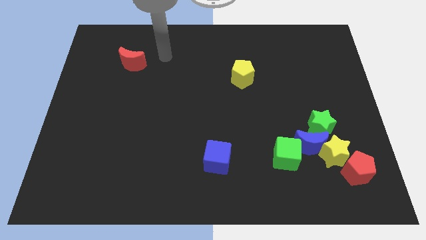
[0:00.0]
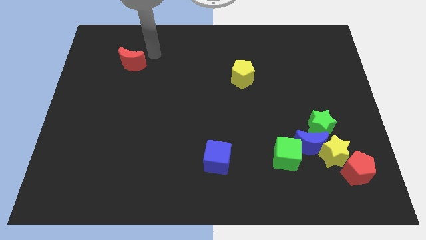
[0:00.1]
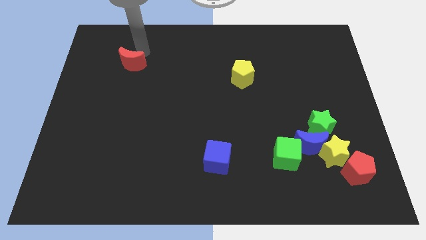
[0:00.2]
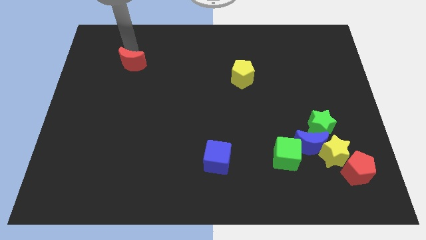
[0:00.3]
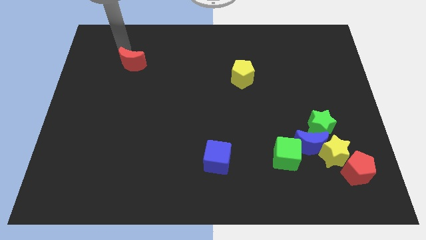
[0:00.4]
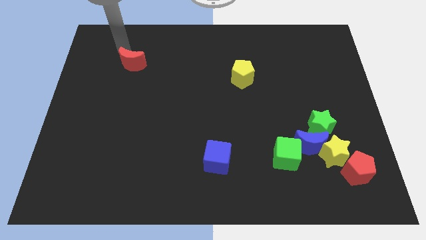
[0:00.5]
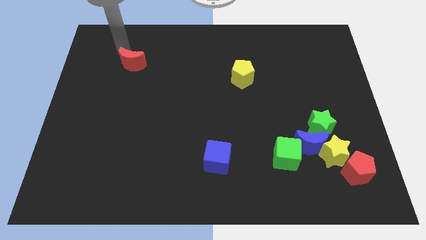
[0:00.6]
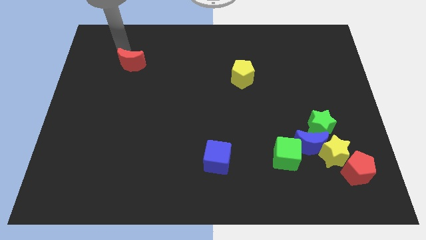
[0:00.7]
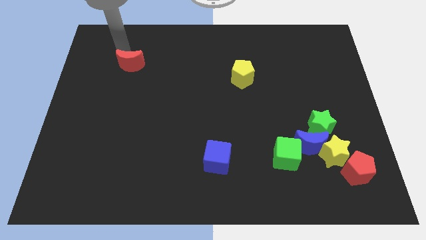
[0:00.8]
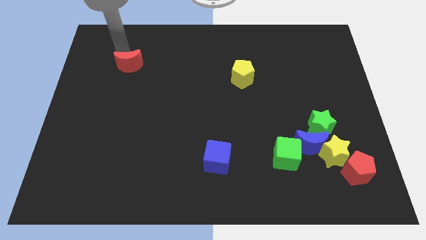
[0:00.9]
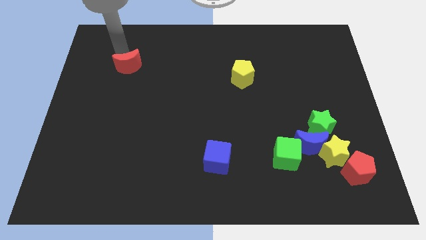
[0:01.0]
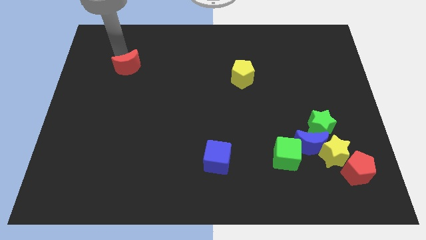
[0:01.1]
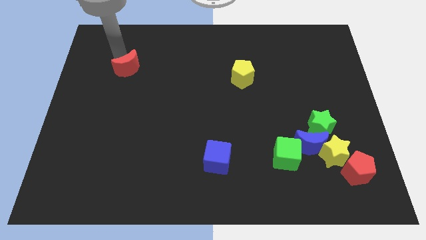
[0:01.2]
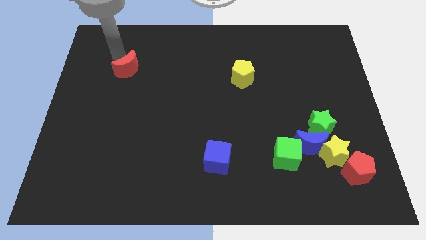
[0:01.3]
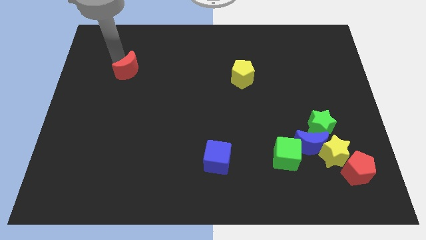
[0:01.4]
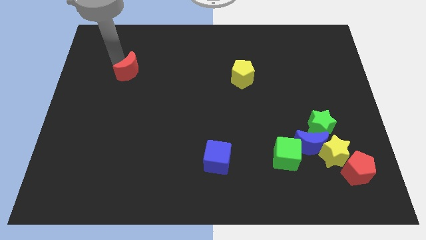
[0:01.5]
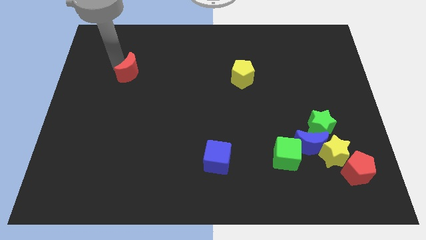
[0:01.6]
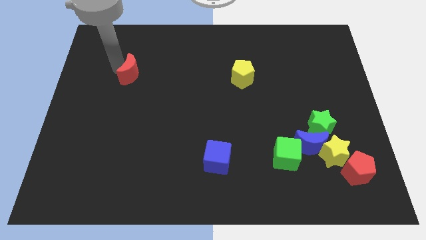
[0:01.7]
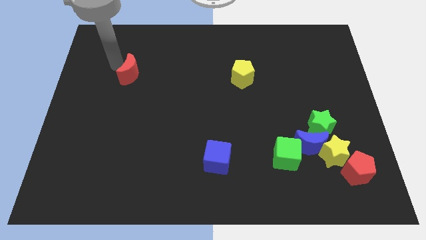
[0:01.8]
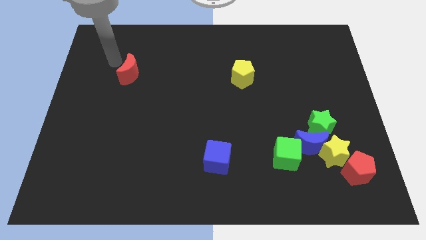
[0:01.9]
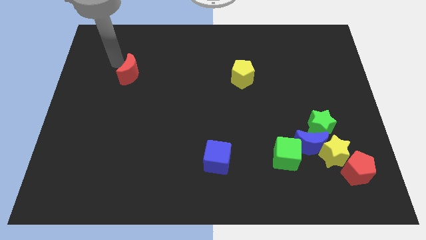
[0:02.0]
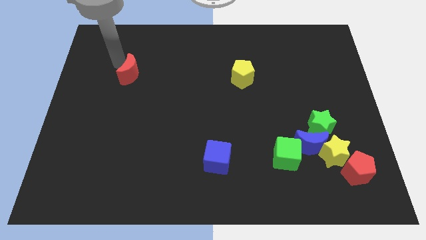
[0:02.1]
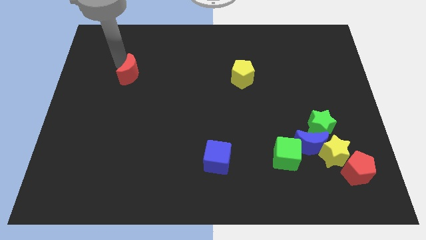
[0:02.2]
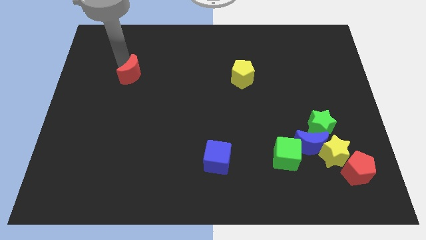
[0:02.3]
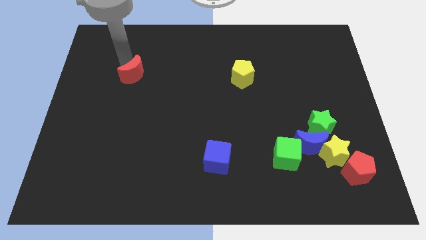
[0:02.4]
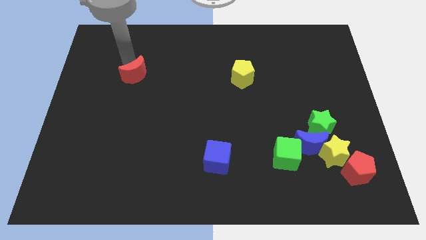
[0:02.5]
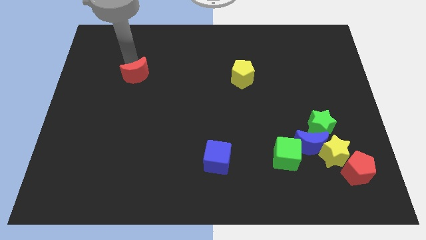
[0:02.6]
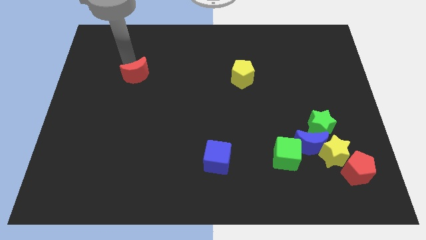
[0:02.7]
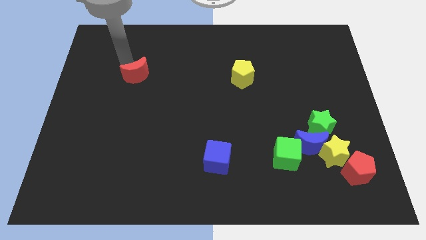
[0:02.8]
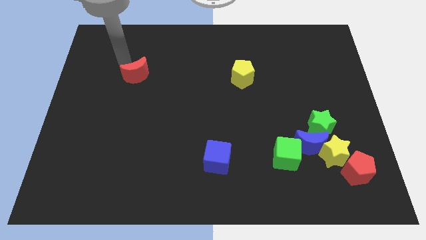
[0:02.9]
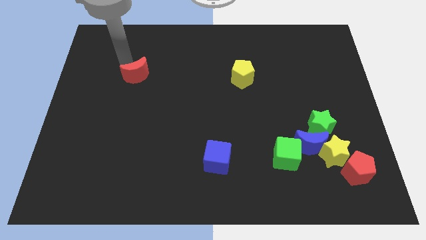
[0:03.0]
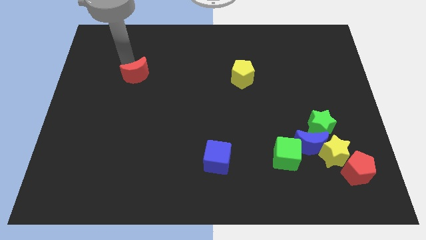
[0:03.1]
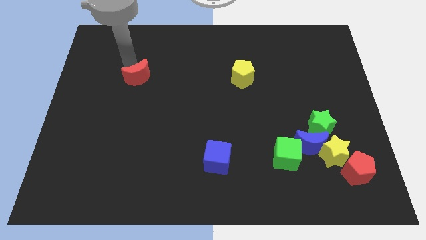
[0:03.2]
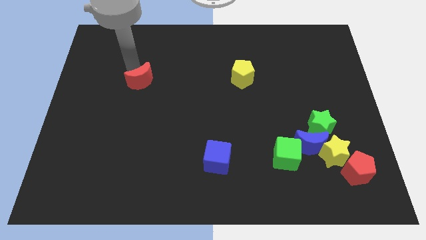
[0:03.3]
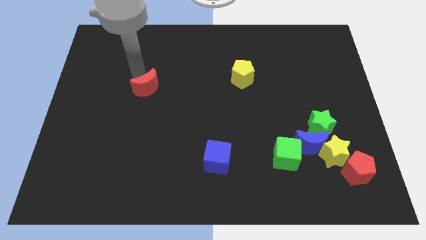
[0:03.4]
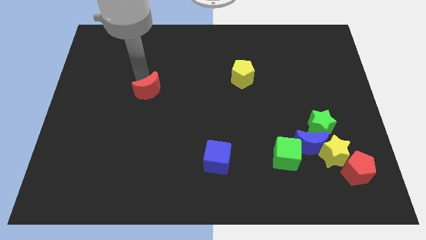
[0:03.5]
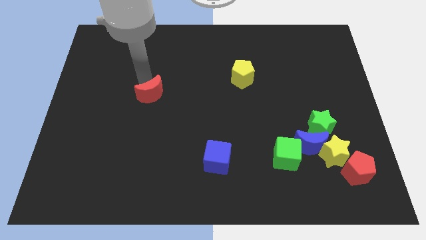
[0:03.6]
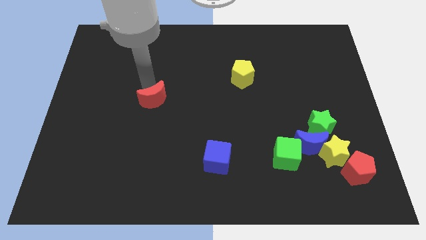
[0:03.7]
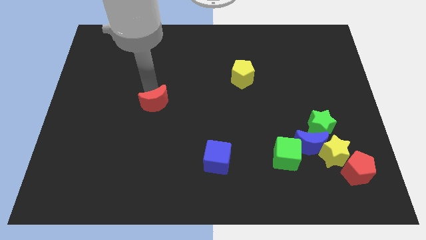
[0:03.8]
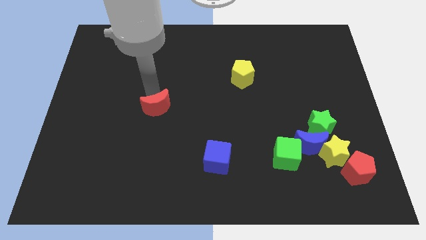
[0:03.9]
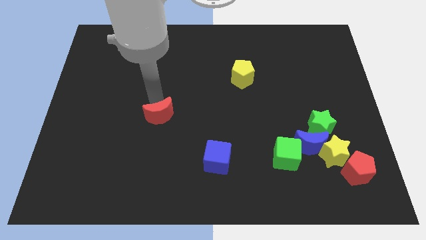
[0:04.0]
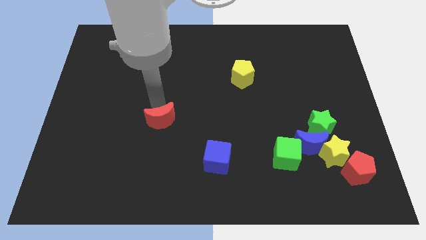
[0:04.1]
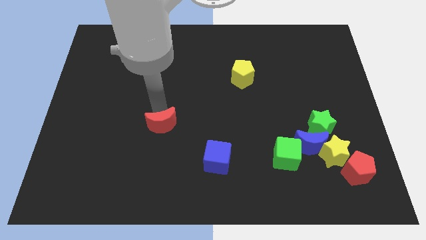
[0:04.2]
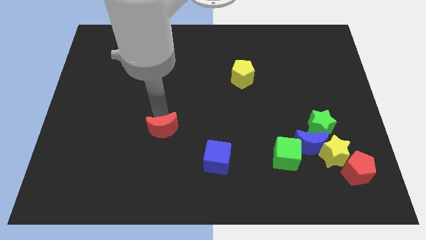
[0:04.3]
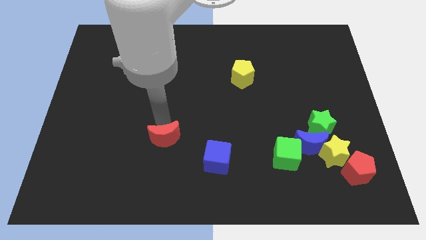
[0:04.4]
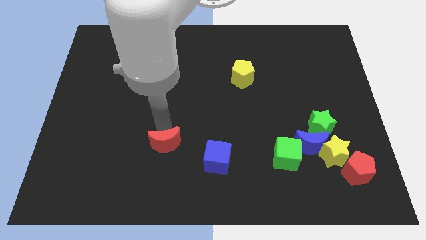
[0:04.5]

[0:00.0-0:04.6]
slide the red moon left of the blue cube

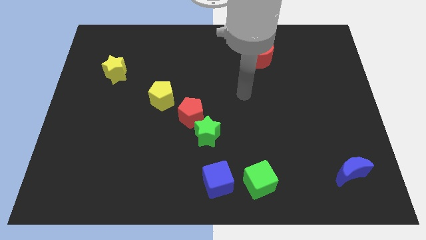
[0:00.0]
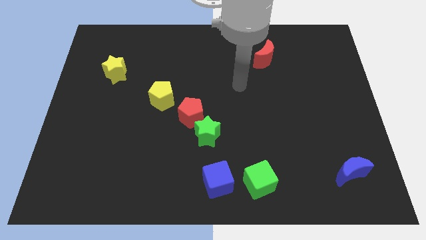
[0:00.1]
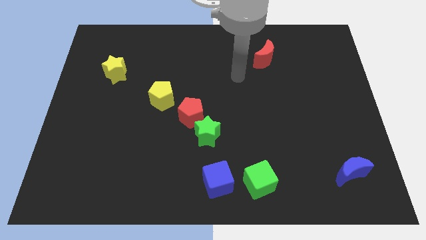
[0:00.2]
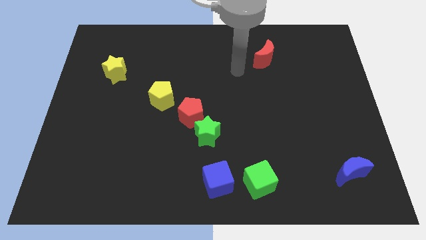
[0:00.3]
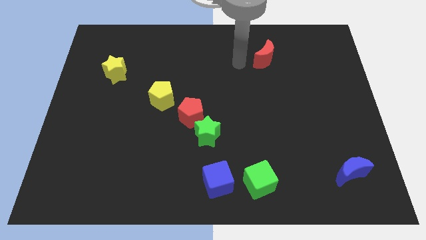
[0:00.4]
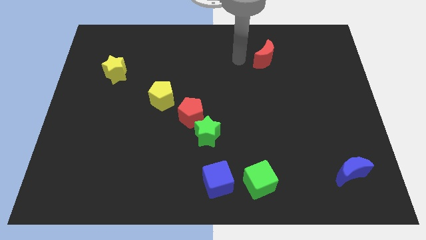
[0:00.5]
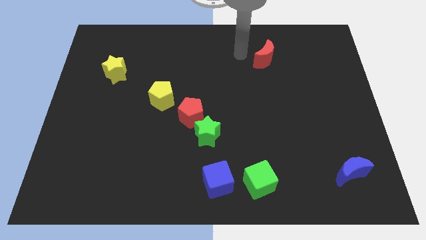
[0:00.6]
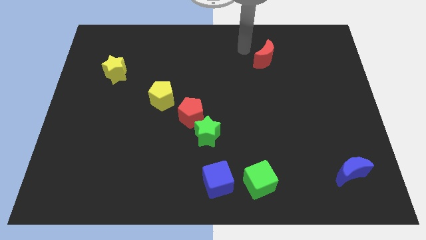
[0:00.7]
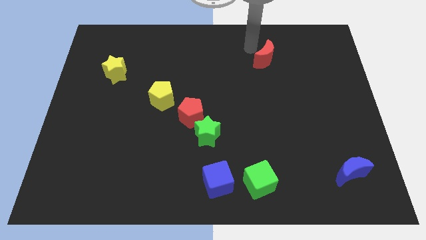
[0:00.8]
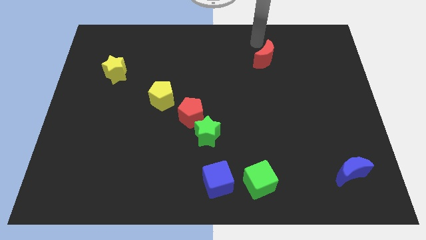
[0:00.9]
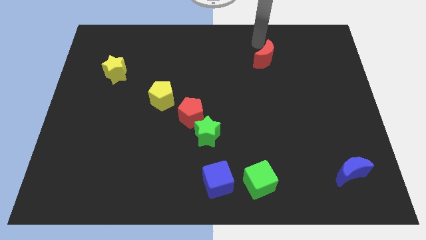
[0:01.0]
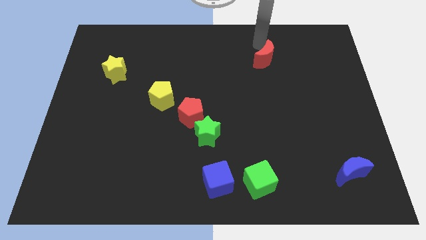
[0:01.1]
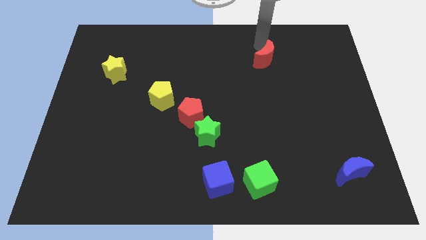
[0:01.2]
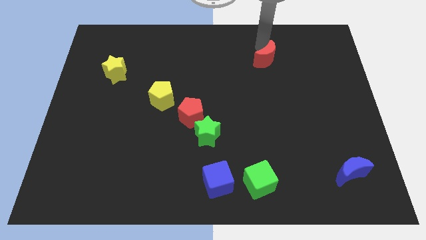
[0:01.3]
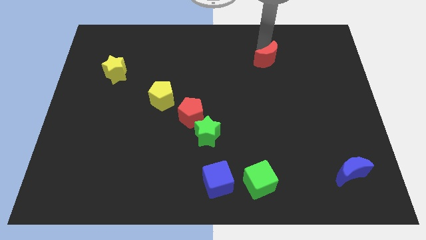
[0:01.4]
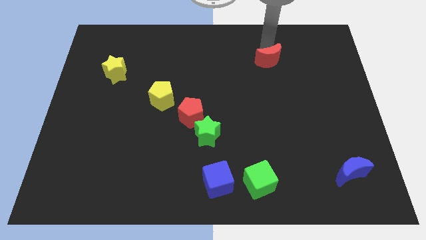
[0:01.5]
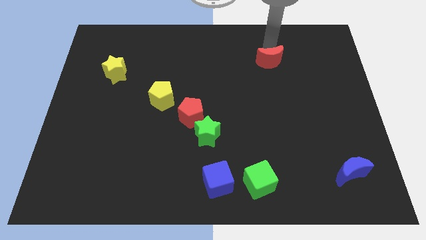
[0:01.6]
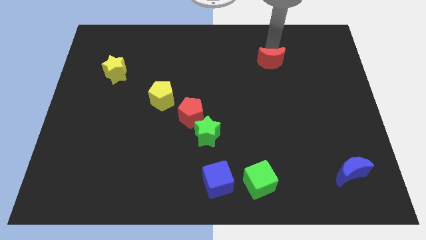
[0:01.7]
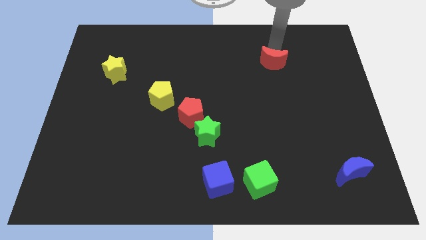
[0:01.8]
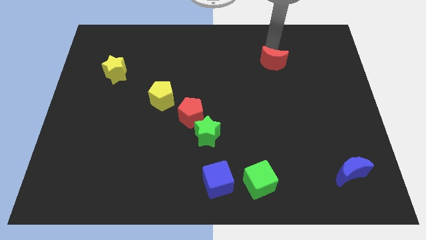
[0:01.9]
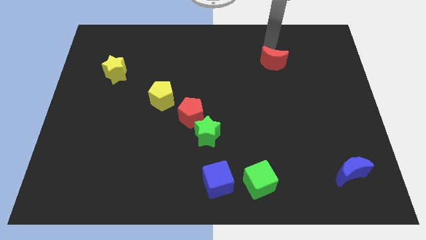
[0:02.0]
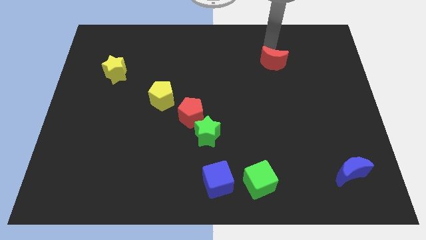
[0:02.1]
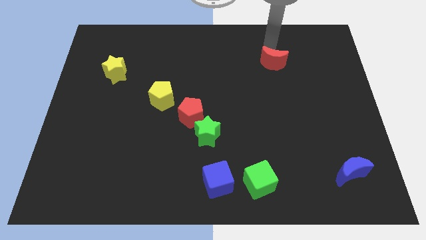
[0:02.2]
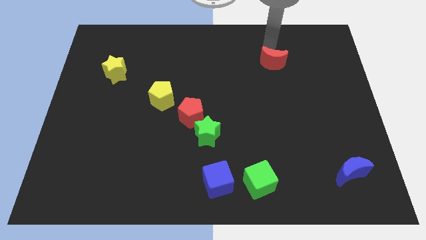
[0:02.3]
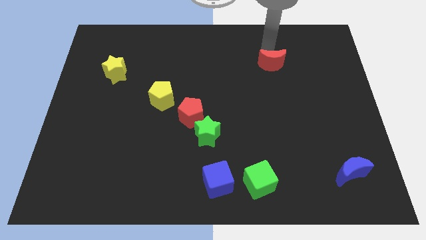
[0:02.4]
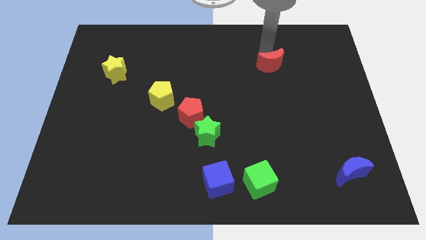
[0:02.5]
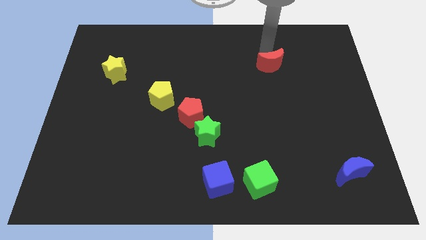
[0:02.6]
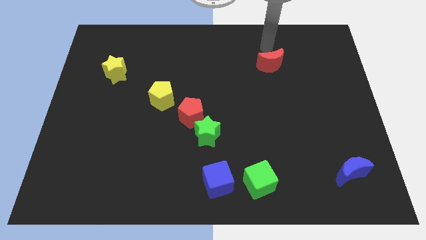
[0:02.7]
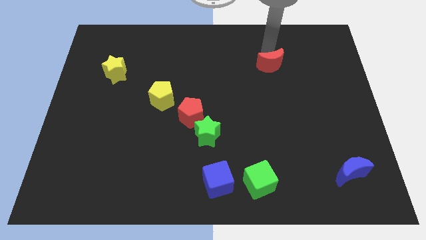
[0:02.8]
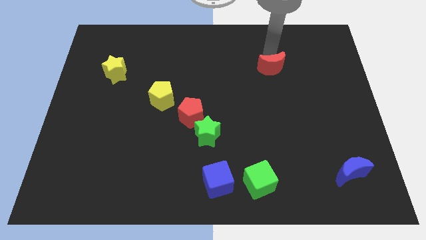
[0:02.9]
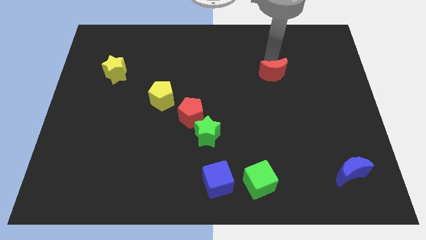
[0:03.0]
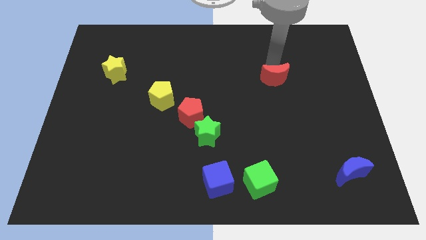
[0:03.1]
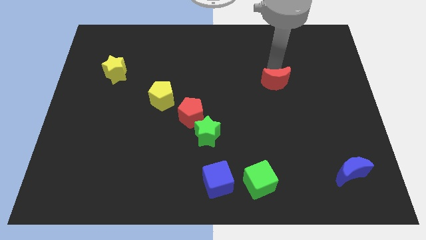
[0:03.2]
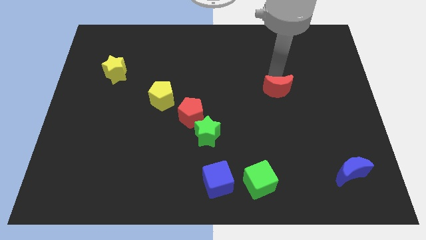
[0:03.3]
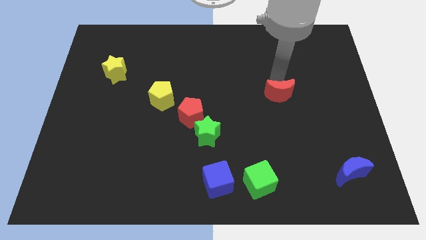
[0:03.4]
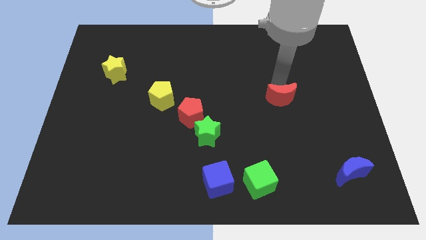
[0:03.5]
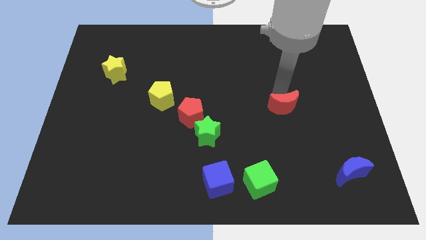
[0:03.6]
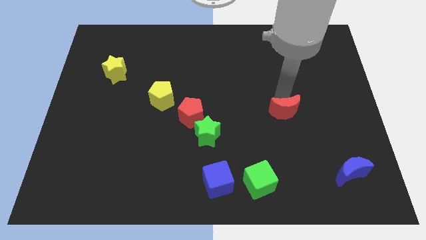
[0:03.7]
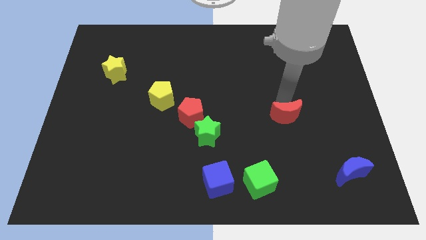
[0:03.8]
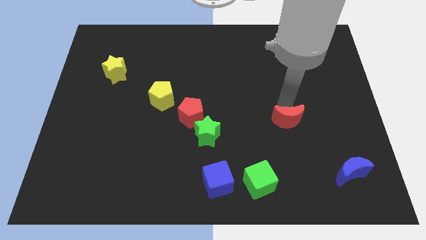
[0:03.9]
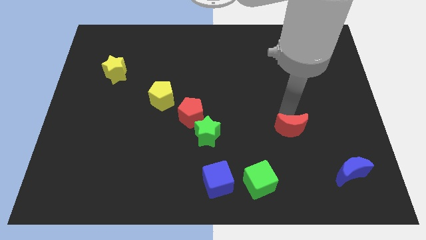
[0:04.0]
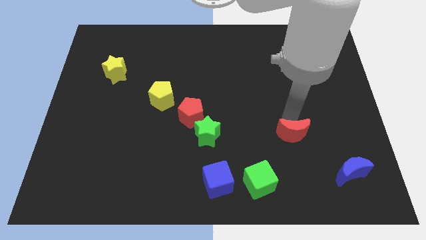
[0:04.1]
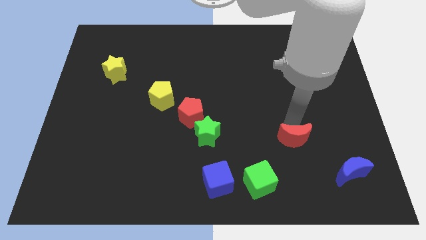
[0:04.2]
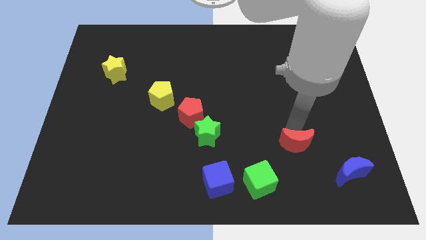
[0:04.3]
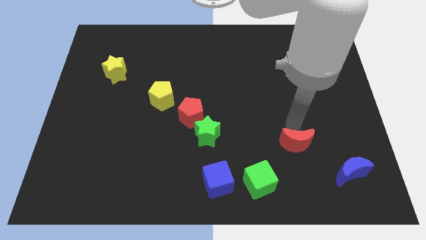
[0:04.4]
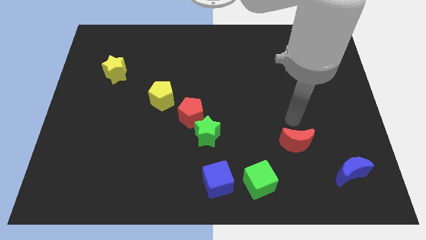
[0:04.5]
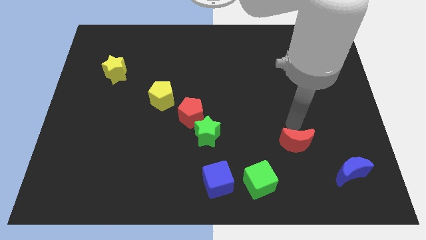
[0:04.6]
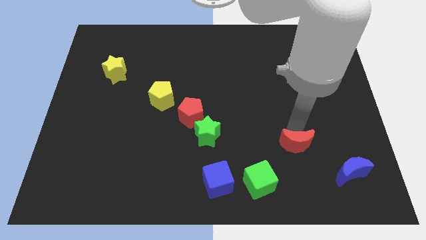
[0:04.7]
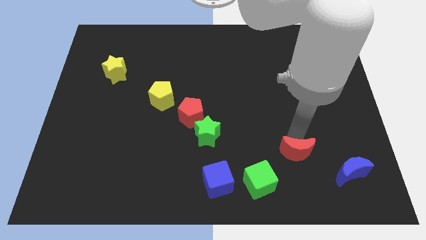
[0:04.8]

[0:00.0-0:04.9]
put the red moon just left of the blue moon
